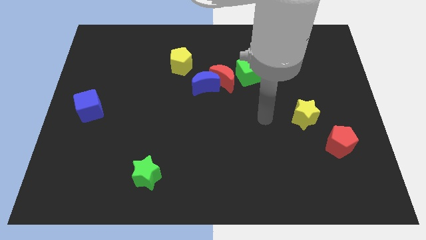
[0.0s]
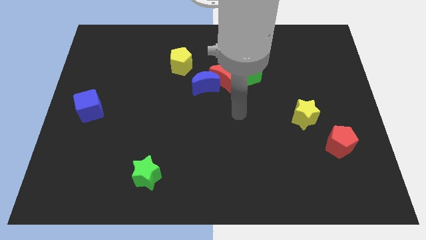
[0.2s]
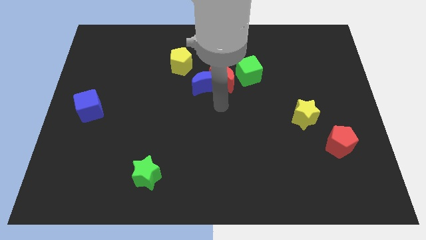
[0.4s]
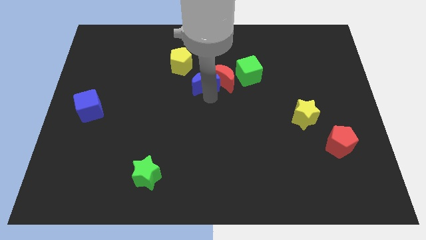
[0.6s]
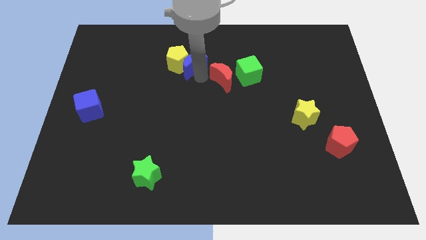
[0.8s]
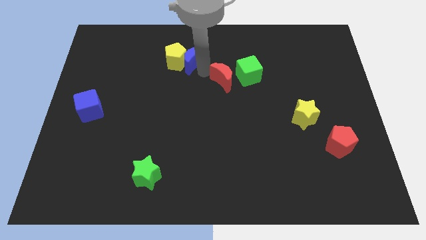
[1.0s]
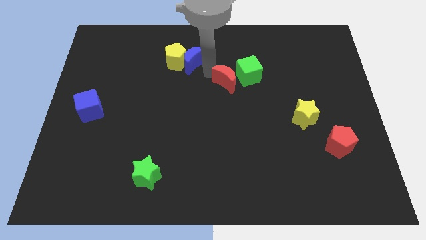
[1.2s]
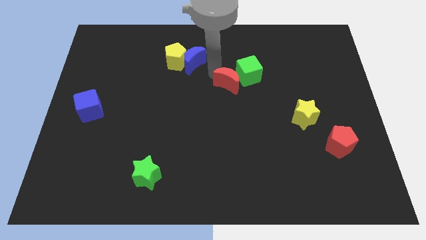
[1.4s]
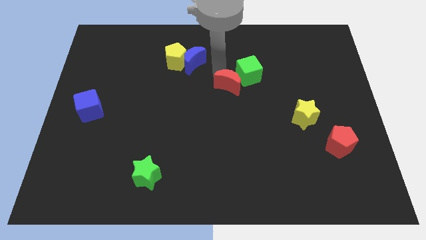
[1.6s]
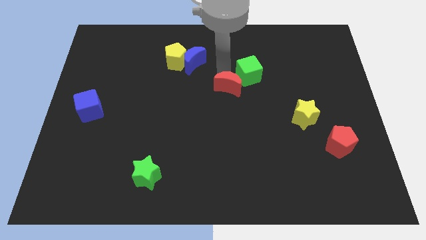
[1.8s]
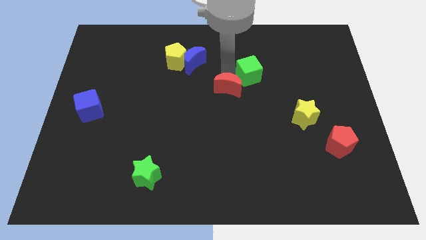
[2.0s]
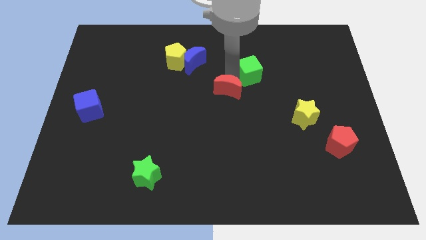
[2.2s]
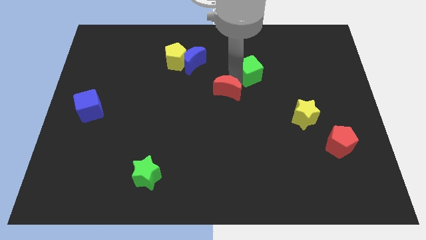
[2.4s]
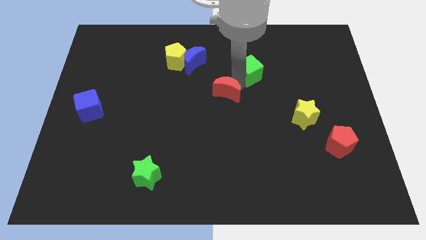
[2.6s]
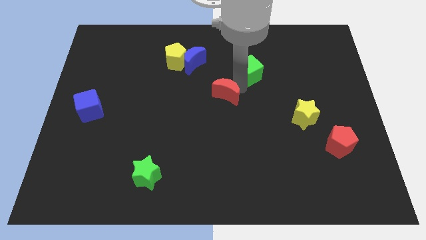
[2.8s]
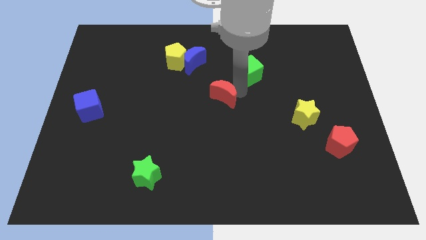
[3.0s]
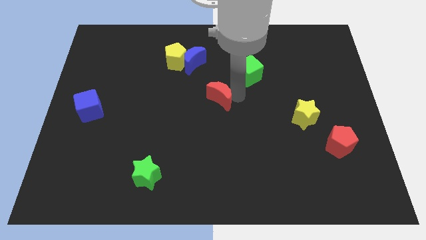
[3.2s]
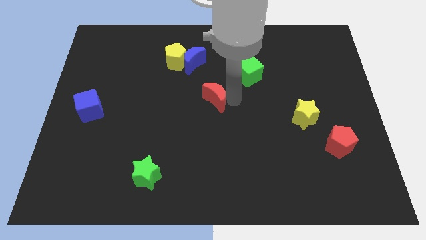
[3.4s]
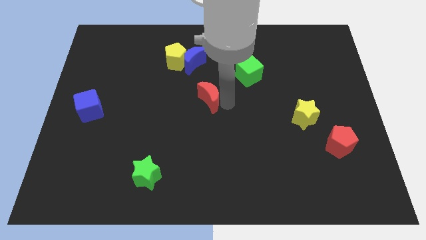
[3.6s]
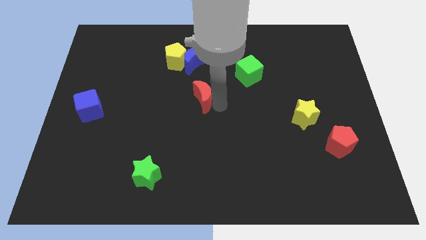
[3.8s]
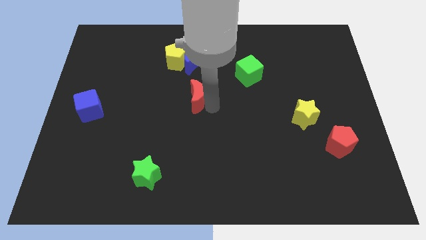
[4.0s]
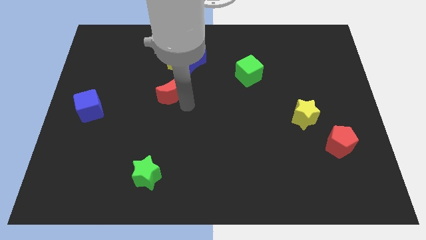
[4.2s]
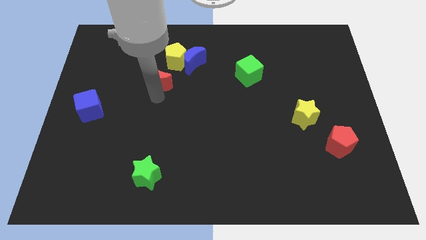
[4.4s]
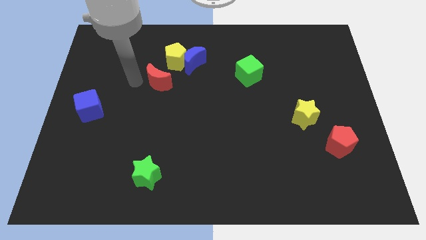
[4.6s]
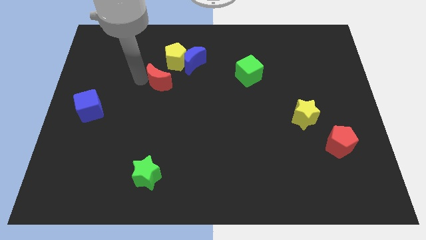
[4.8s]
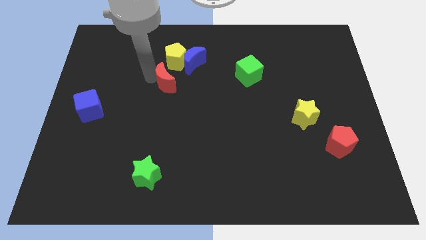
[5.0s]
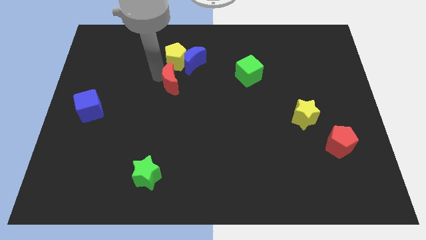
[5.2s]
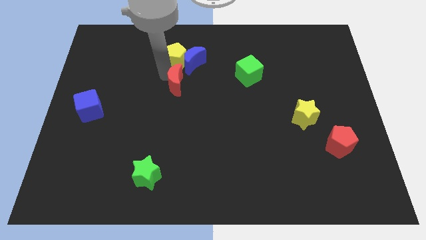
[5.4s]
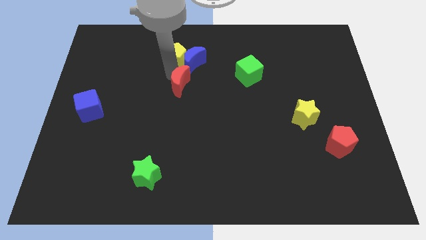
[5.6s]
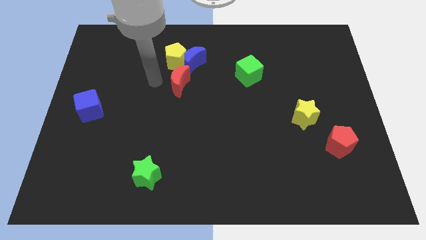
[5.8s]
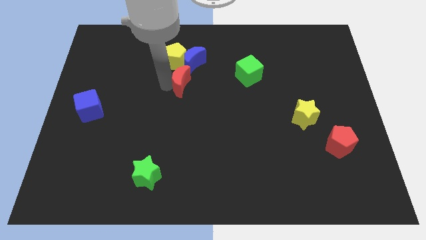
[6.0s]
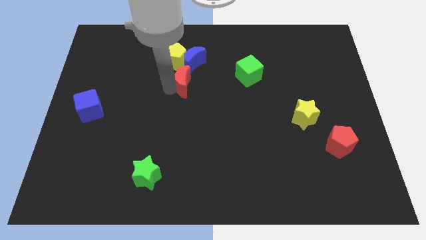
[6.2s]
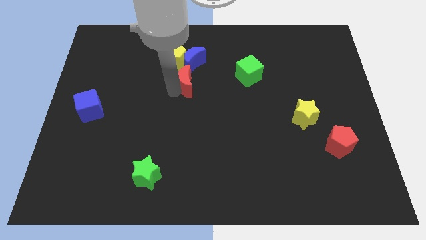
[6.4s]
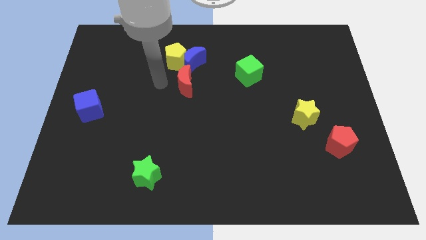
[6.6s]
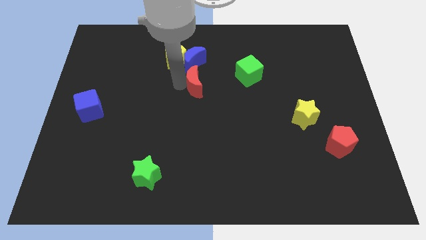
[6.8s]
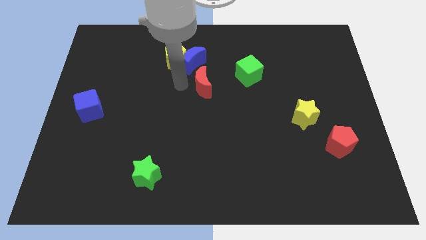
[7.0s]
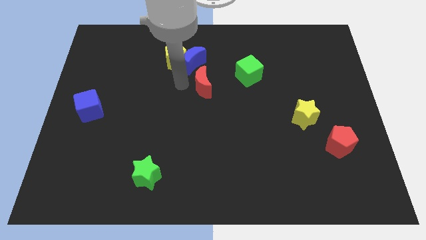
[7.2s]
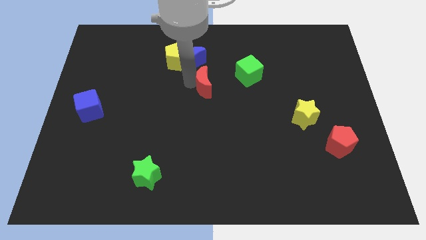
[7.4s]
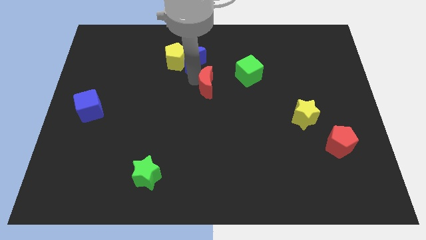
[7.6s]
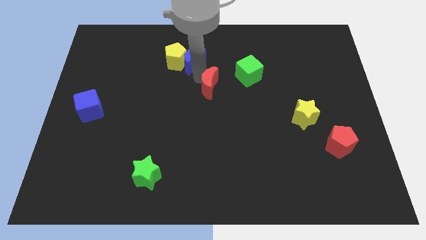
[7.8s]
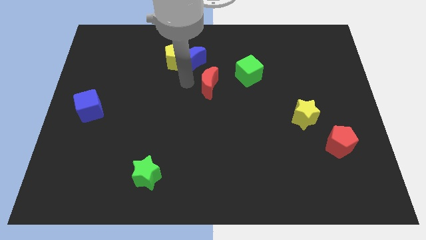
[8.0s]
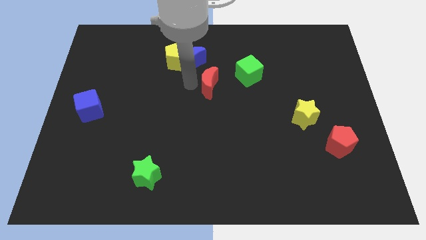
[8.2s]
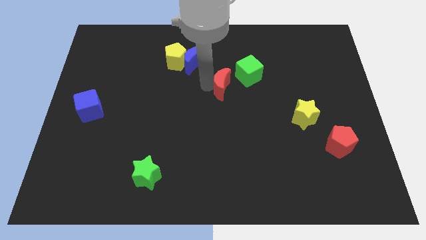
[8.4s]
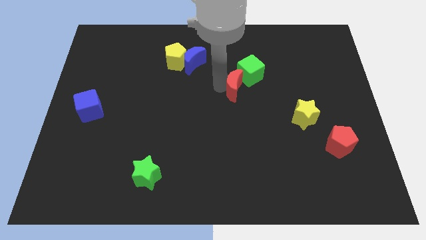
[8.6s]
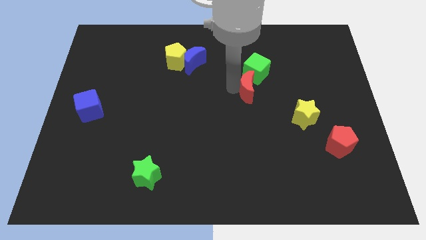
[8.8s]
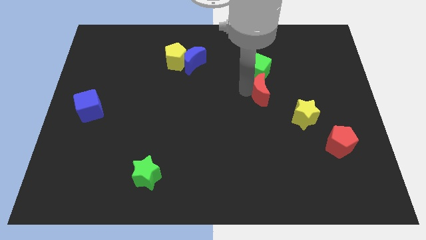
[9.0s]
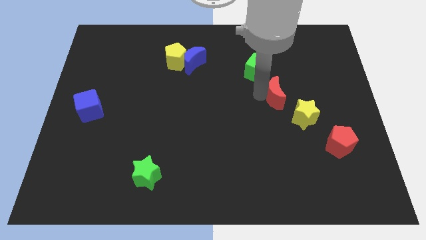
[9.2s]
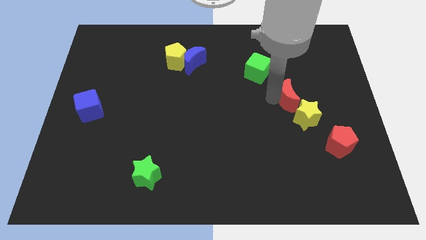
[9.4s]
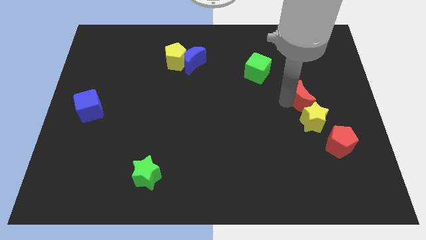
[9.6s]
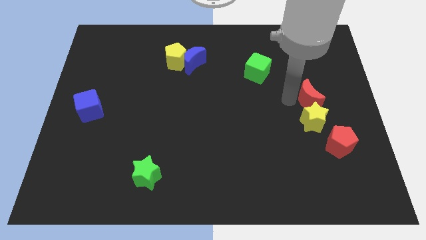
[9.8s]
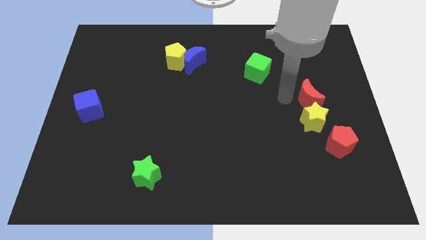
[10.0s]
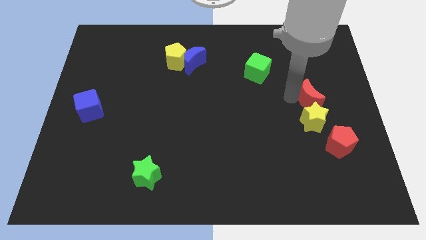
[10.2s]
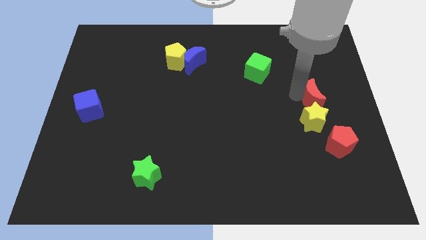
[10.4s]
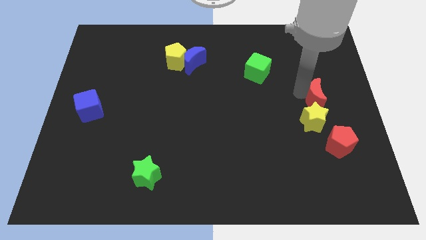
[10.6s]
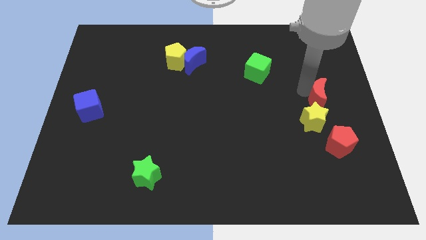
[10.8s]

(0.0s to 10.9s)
put the red moon to the right side of the board

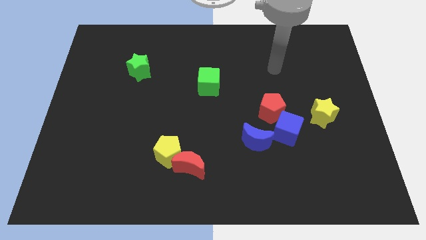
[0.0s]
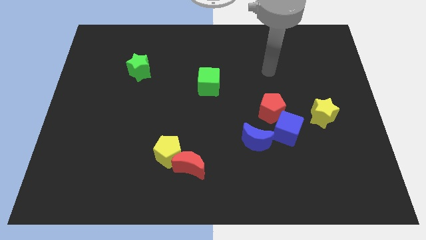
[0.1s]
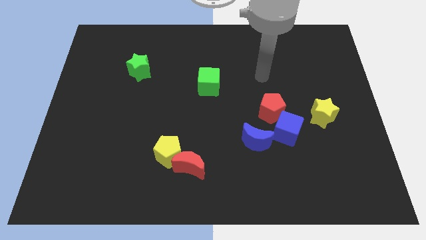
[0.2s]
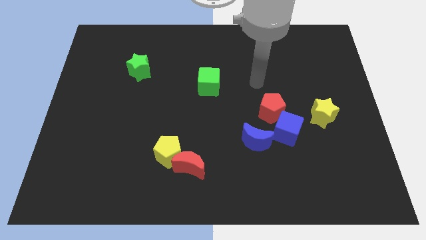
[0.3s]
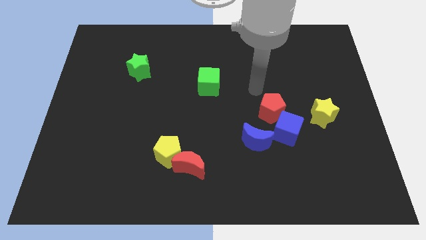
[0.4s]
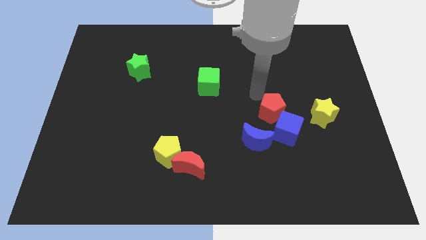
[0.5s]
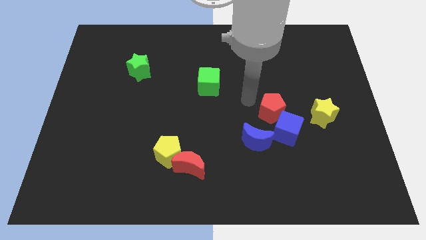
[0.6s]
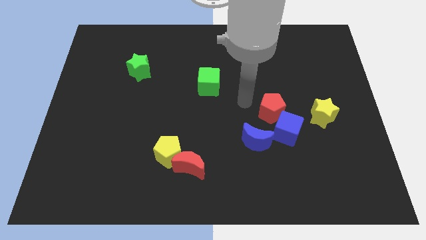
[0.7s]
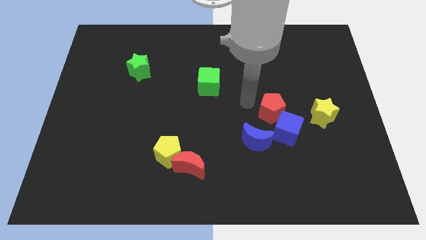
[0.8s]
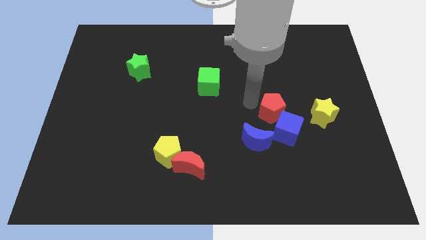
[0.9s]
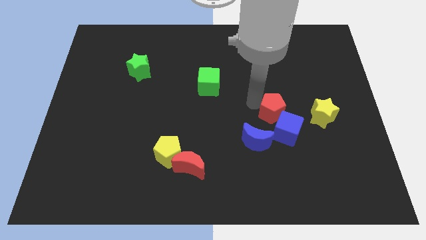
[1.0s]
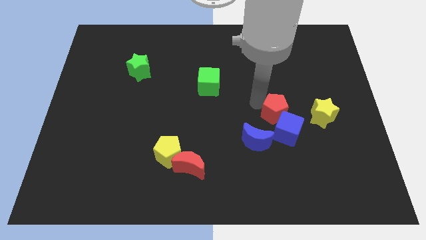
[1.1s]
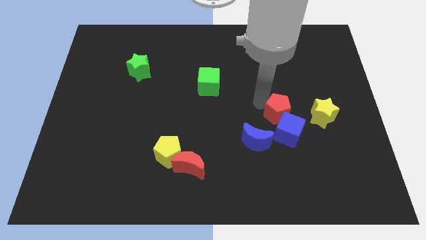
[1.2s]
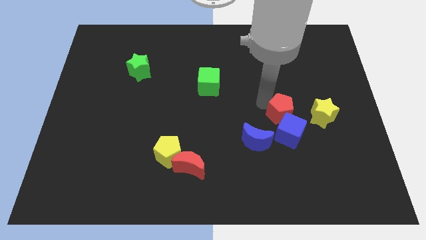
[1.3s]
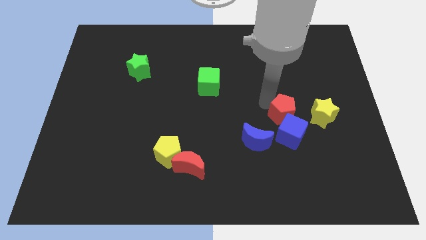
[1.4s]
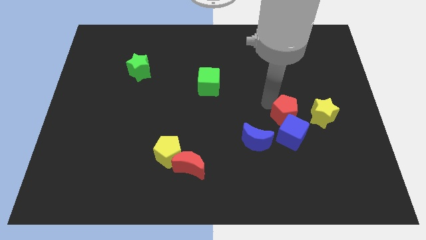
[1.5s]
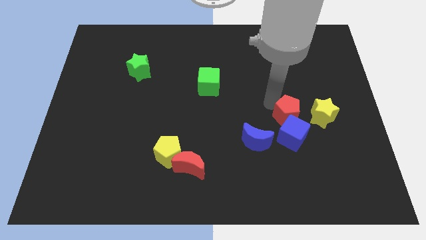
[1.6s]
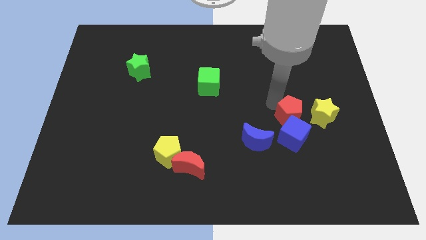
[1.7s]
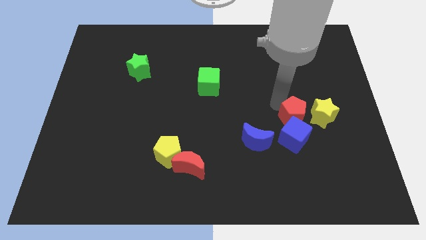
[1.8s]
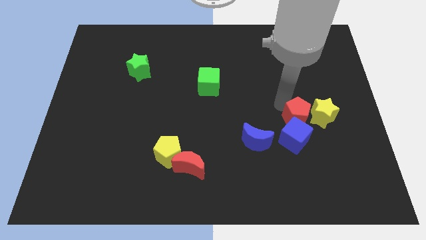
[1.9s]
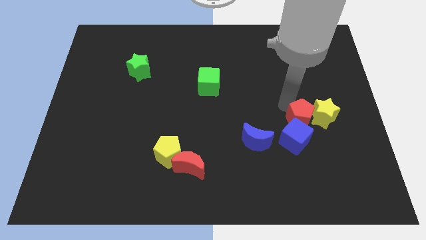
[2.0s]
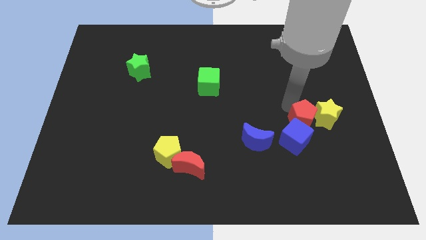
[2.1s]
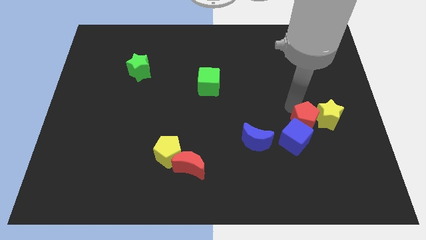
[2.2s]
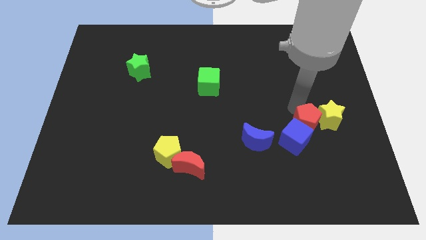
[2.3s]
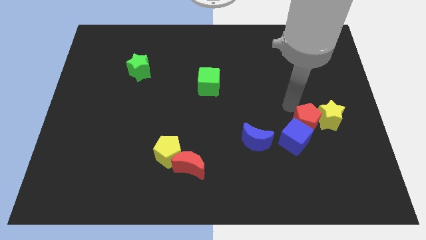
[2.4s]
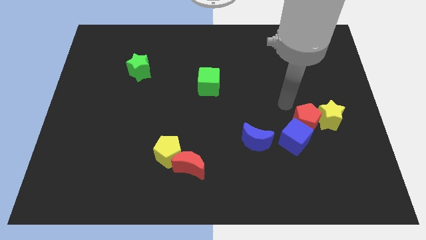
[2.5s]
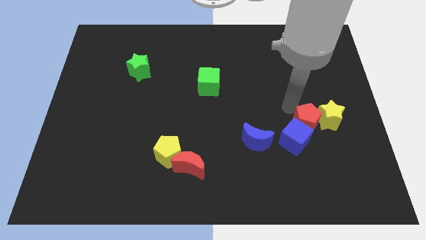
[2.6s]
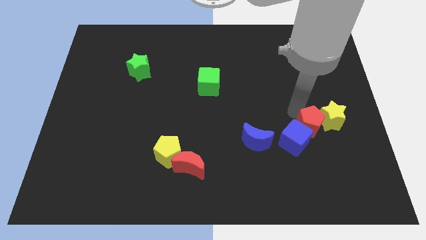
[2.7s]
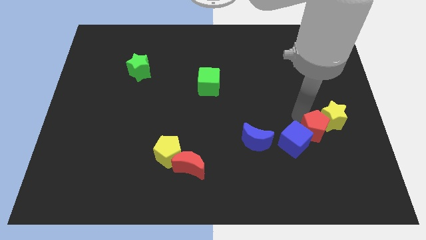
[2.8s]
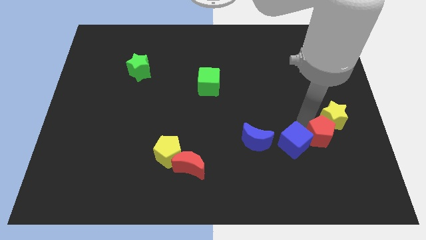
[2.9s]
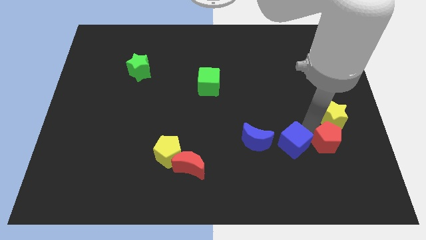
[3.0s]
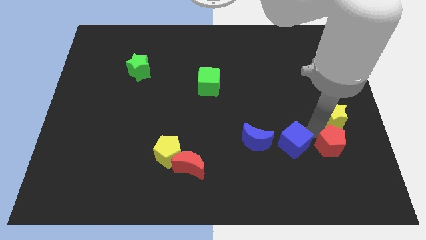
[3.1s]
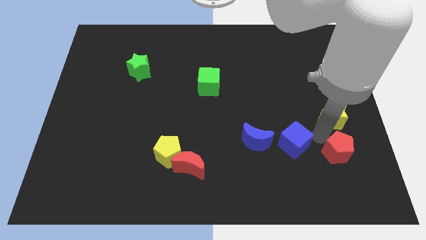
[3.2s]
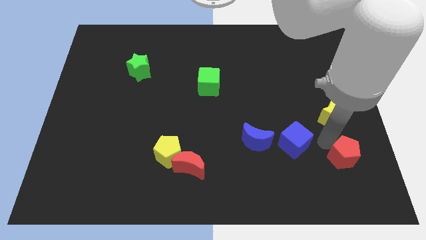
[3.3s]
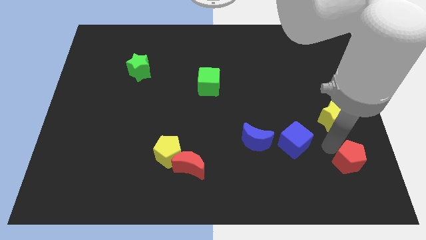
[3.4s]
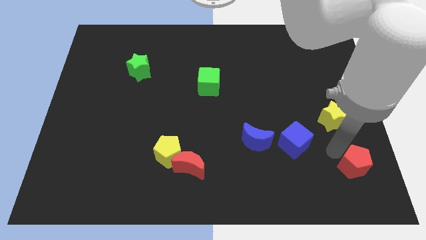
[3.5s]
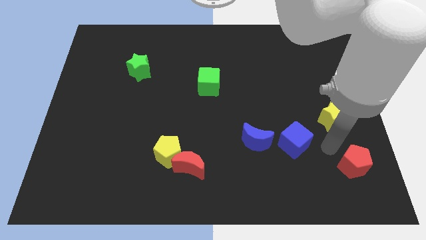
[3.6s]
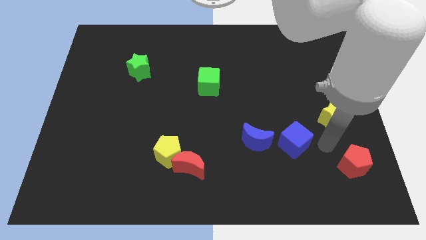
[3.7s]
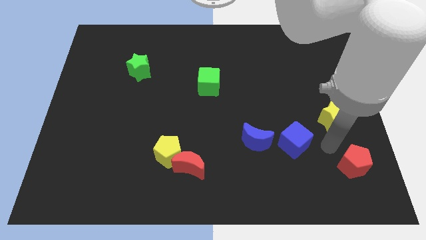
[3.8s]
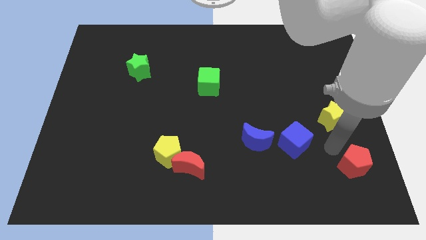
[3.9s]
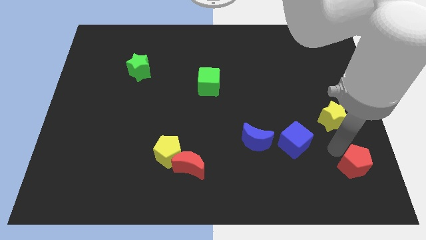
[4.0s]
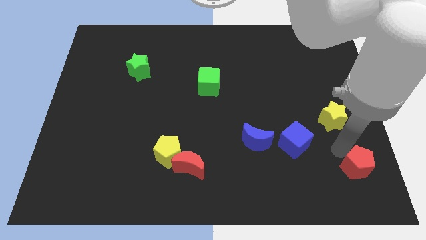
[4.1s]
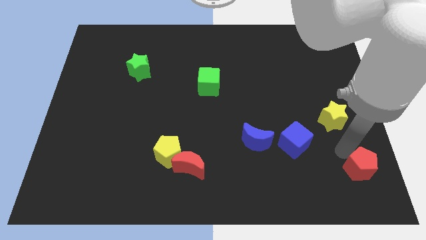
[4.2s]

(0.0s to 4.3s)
push the red pentagon to the bottom right of the board
